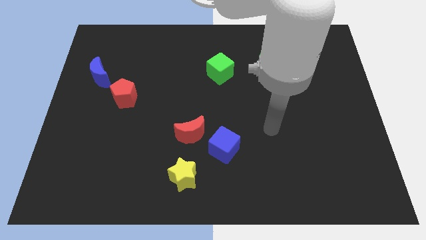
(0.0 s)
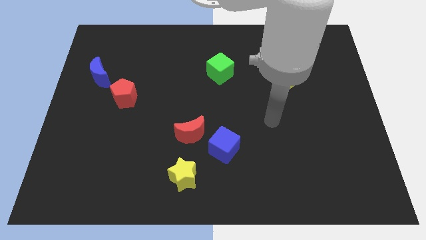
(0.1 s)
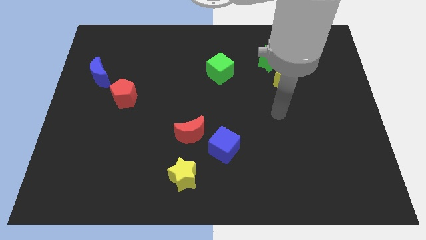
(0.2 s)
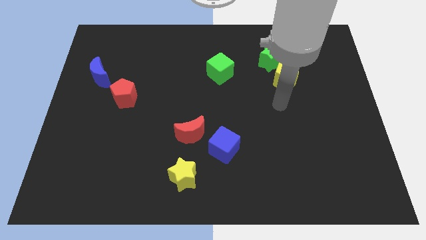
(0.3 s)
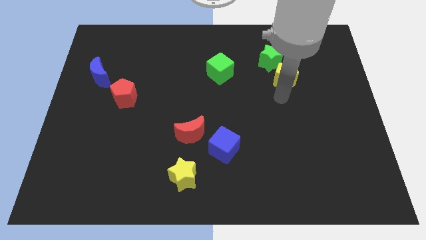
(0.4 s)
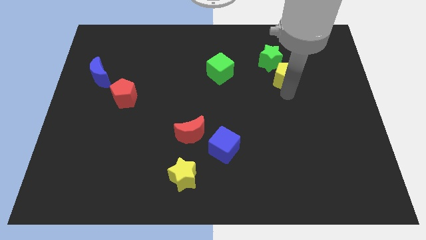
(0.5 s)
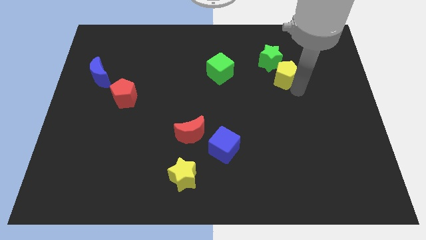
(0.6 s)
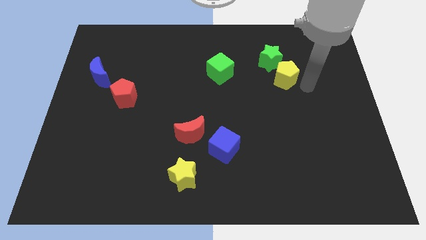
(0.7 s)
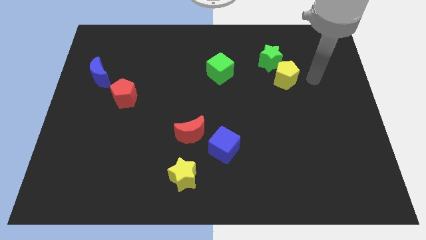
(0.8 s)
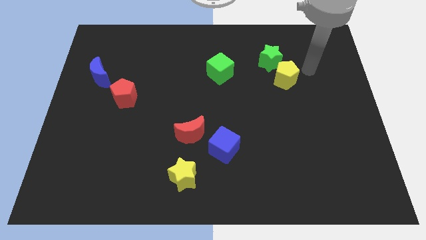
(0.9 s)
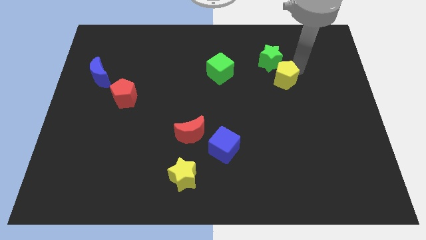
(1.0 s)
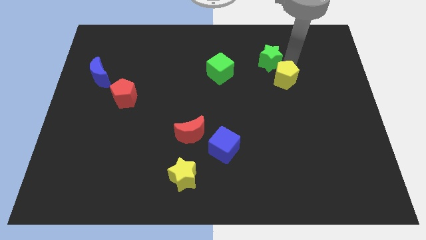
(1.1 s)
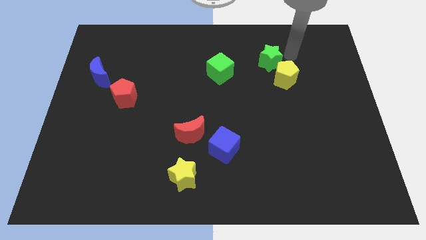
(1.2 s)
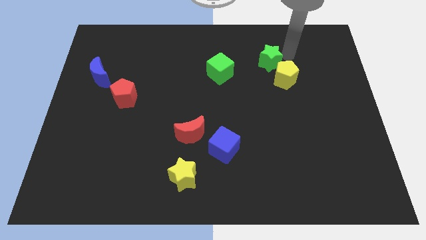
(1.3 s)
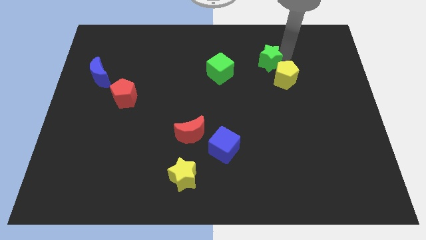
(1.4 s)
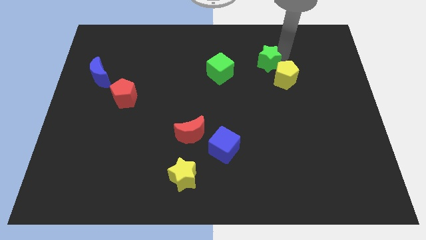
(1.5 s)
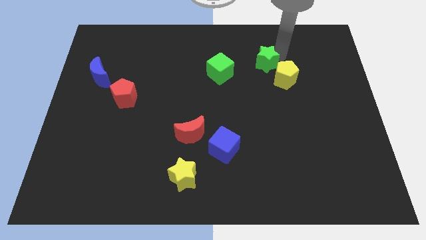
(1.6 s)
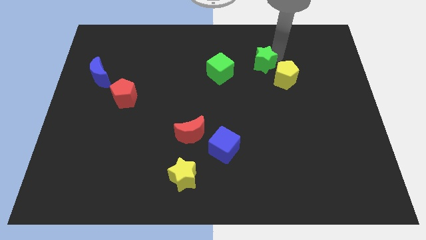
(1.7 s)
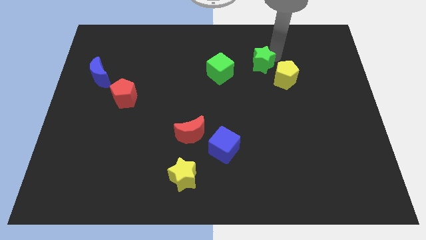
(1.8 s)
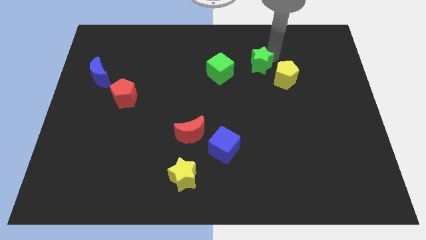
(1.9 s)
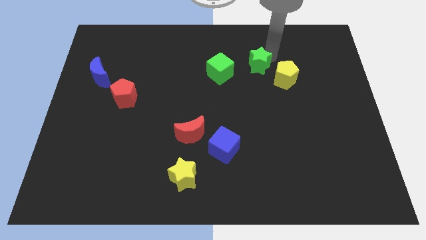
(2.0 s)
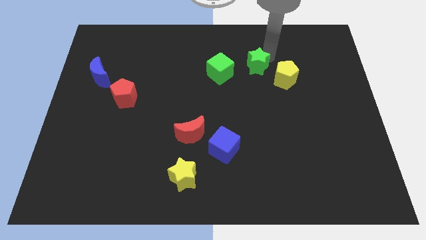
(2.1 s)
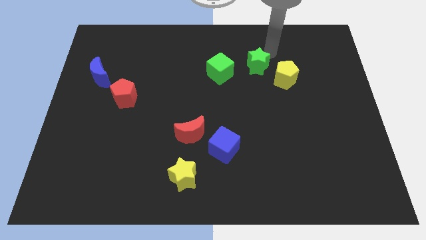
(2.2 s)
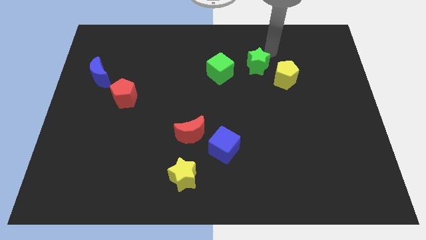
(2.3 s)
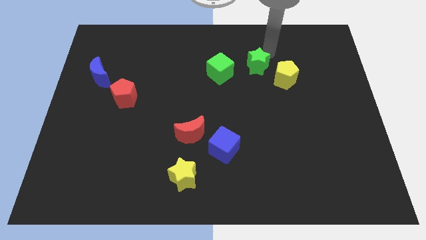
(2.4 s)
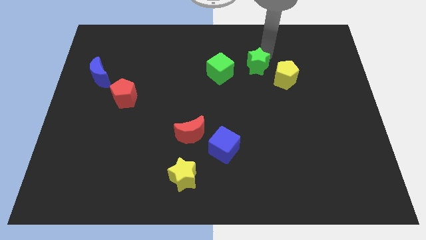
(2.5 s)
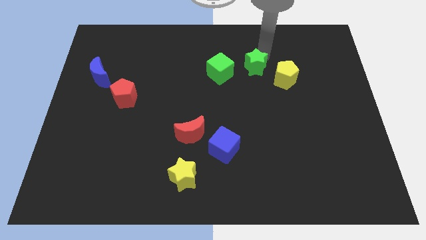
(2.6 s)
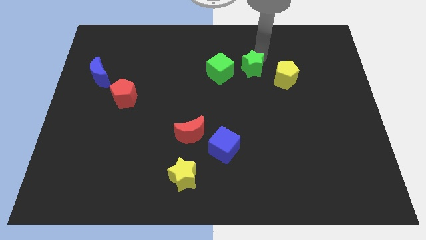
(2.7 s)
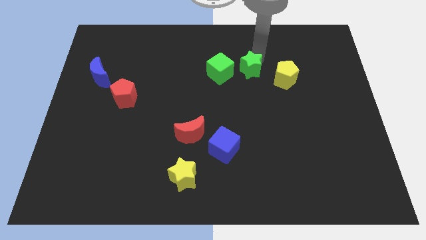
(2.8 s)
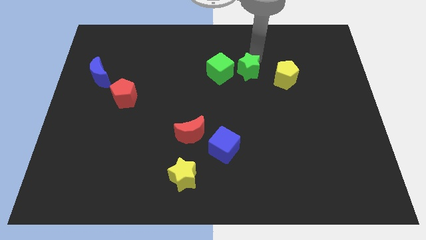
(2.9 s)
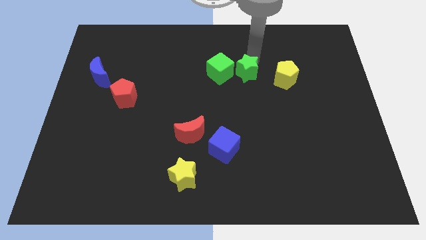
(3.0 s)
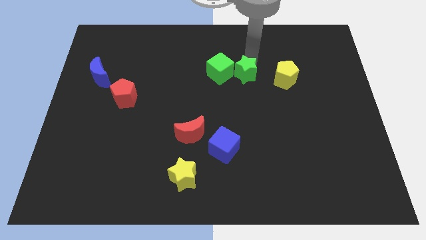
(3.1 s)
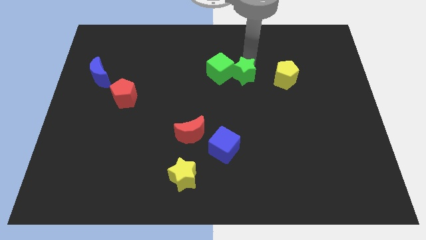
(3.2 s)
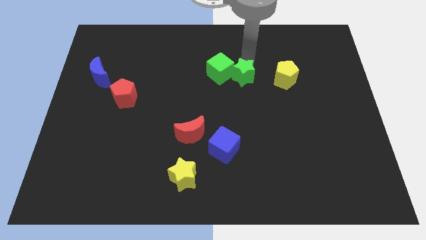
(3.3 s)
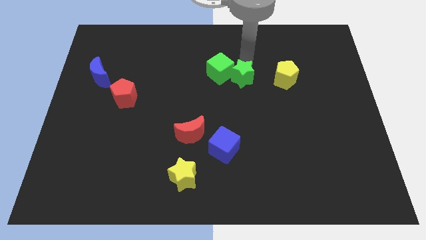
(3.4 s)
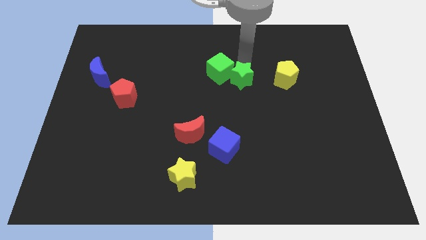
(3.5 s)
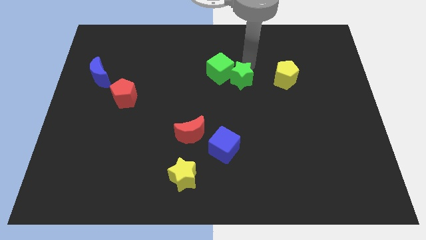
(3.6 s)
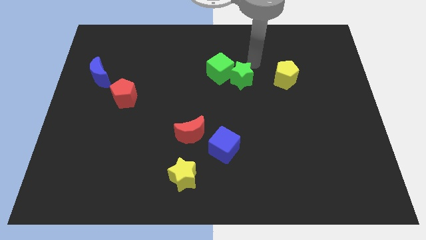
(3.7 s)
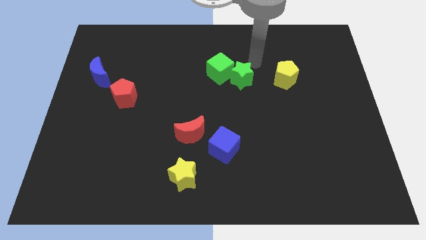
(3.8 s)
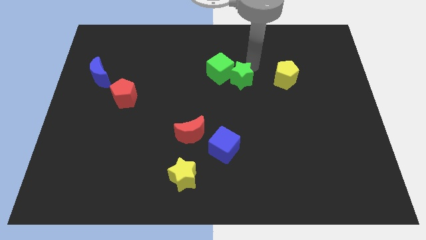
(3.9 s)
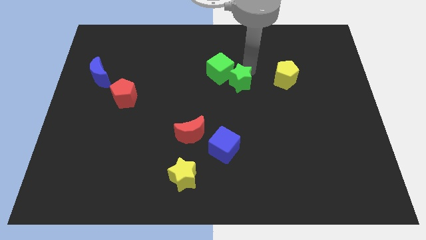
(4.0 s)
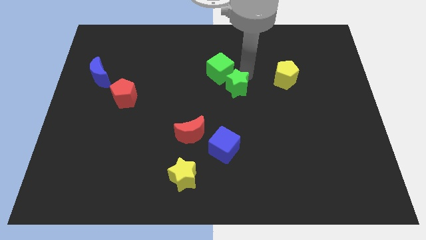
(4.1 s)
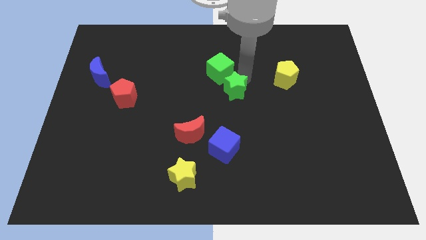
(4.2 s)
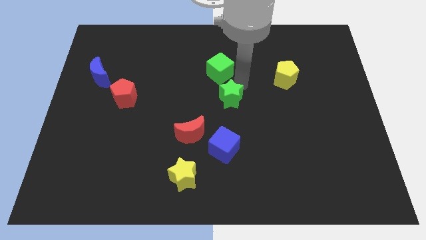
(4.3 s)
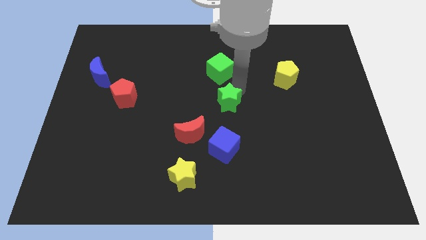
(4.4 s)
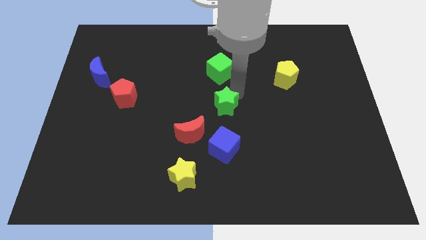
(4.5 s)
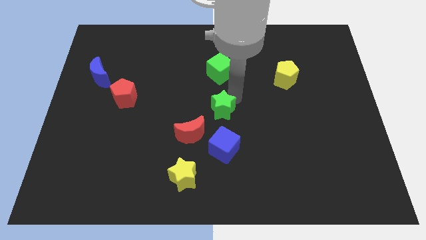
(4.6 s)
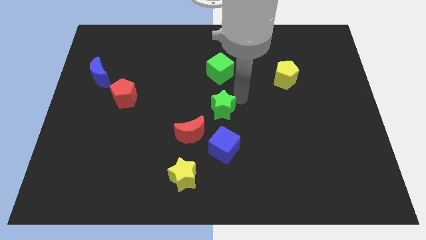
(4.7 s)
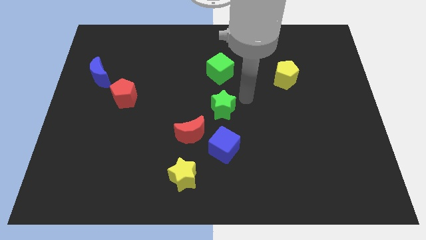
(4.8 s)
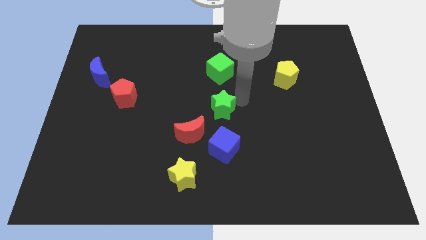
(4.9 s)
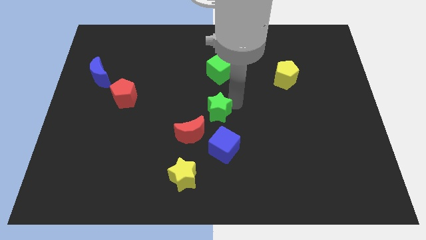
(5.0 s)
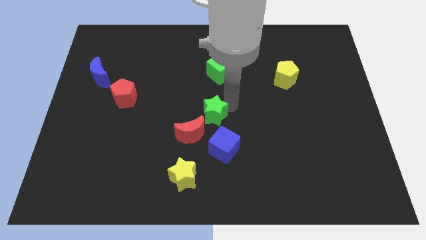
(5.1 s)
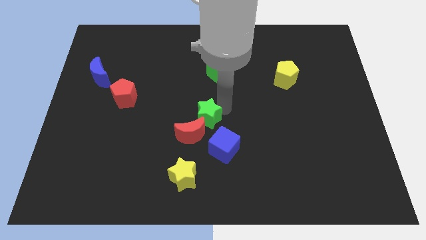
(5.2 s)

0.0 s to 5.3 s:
move the green star towards the red moon

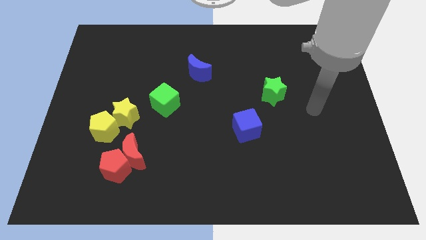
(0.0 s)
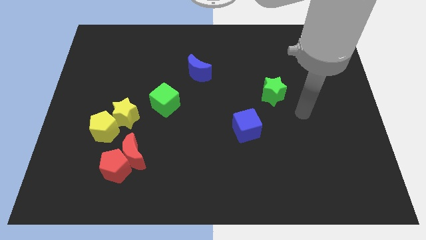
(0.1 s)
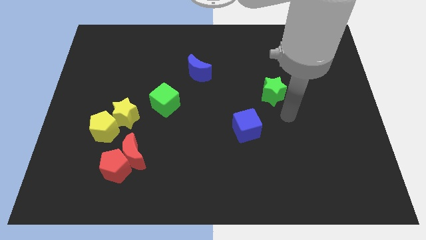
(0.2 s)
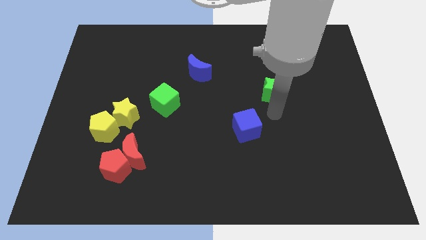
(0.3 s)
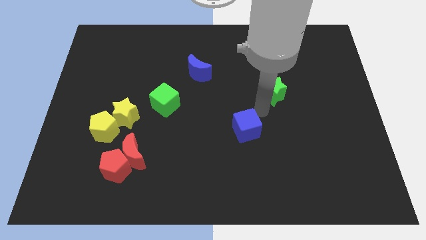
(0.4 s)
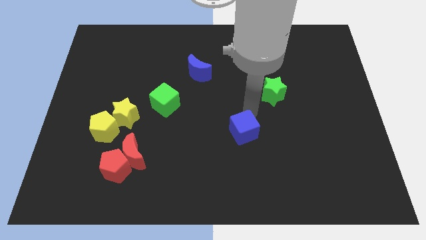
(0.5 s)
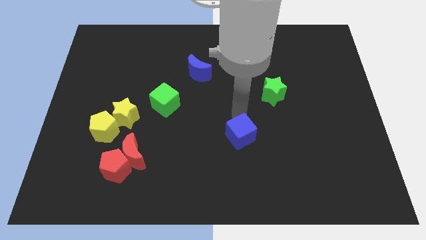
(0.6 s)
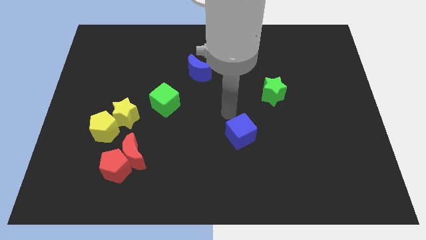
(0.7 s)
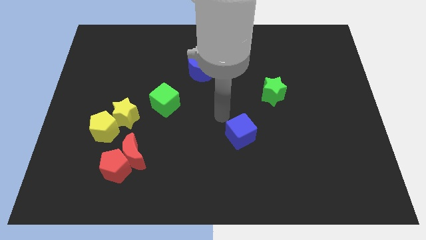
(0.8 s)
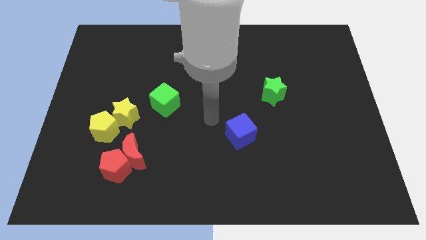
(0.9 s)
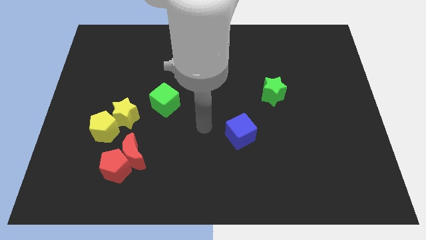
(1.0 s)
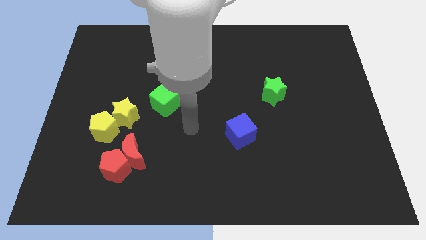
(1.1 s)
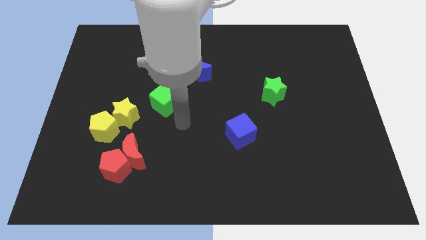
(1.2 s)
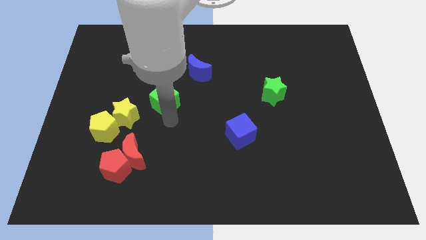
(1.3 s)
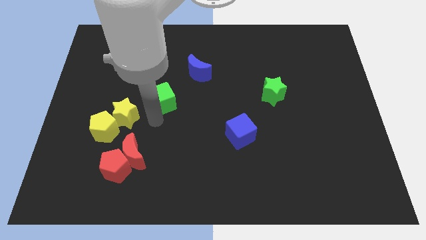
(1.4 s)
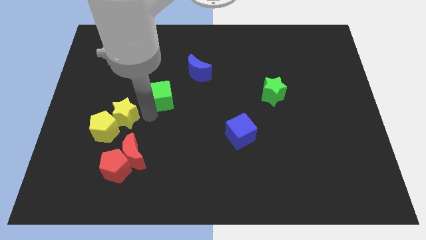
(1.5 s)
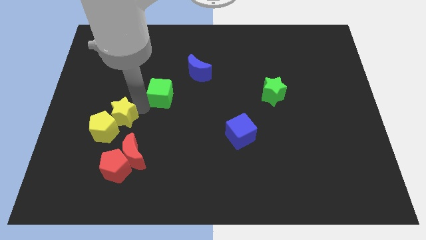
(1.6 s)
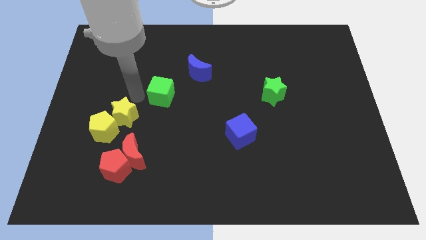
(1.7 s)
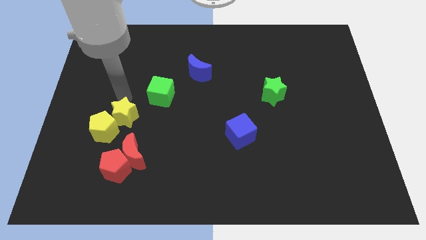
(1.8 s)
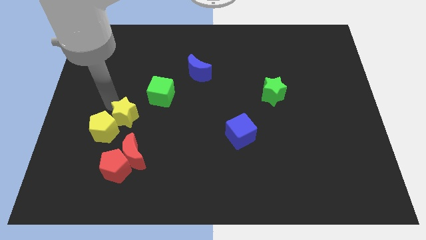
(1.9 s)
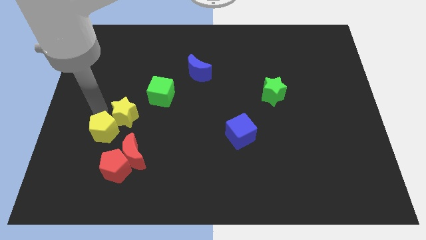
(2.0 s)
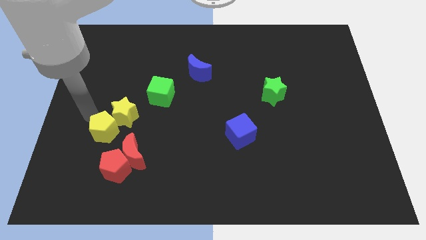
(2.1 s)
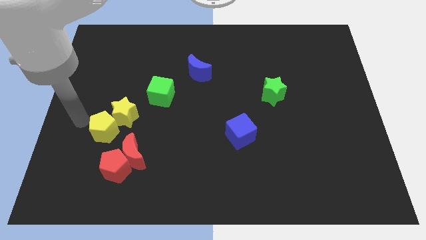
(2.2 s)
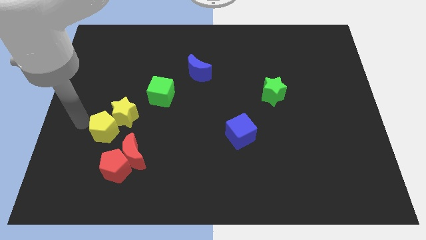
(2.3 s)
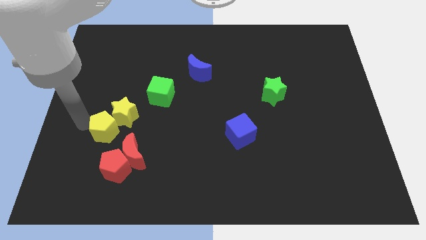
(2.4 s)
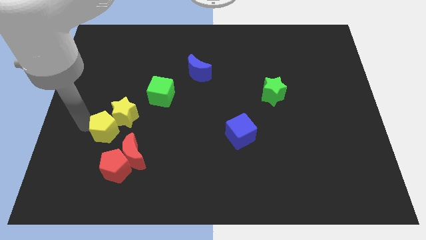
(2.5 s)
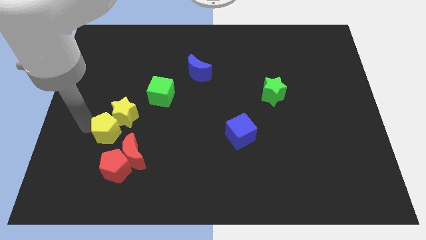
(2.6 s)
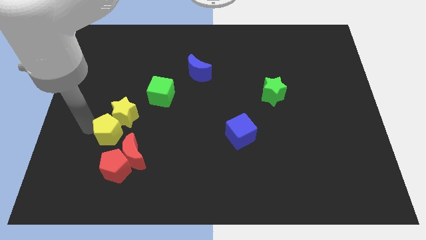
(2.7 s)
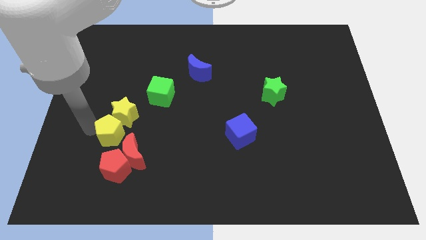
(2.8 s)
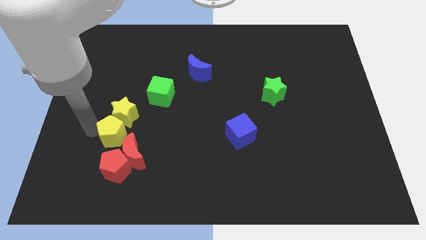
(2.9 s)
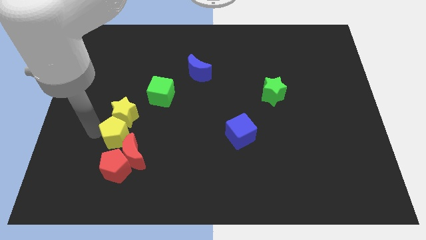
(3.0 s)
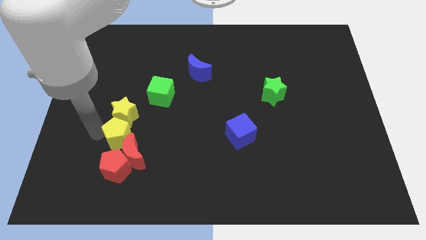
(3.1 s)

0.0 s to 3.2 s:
put the yellow pentagon close to the red moon

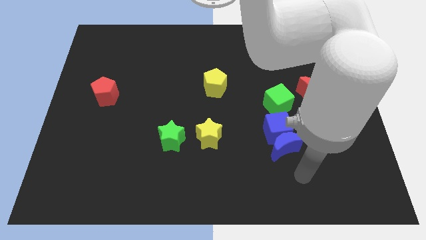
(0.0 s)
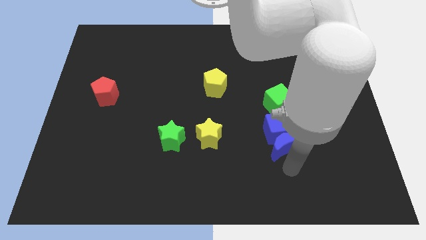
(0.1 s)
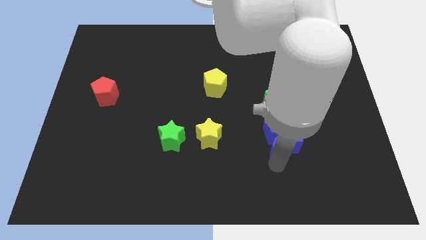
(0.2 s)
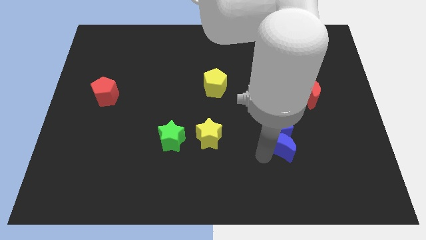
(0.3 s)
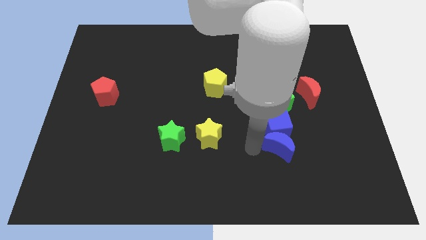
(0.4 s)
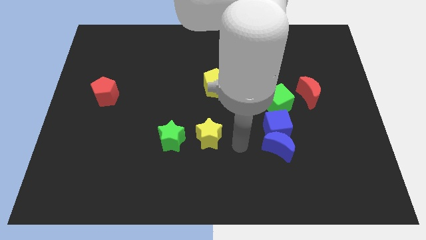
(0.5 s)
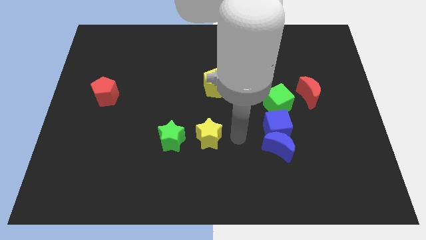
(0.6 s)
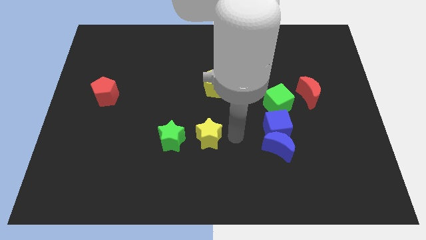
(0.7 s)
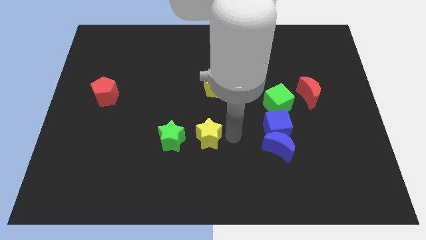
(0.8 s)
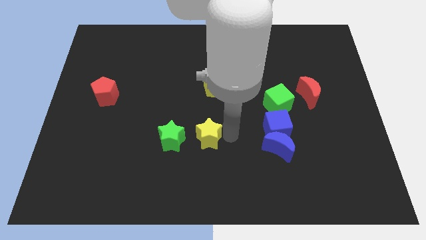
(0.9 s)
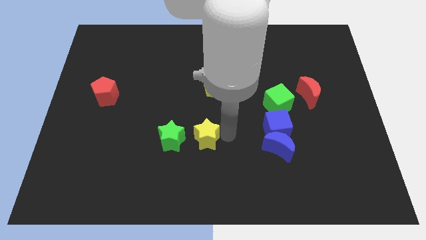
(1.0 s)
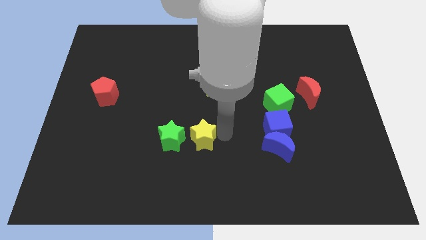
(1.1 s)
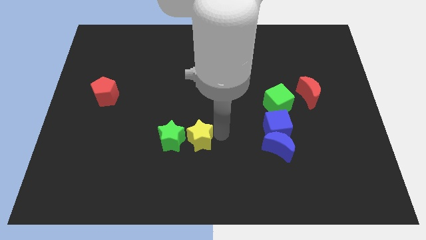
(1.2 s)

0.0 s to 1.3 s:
slide the yellow star to the green star
